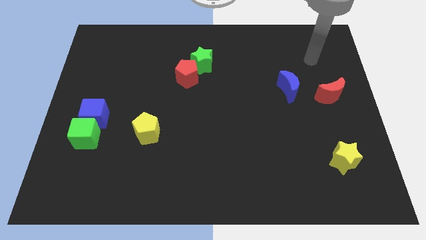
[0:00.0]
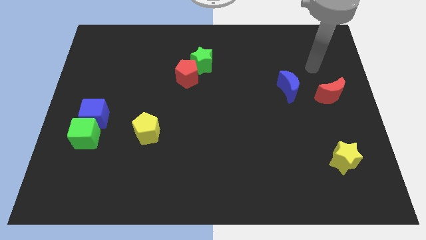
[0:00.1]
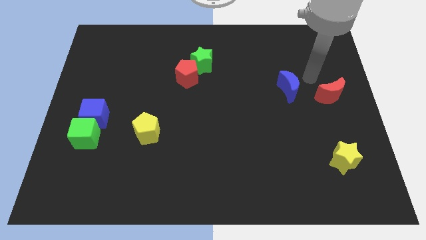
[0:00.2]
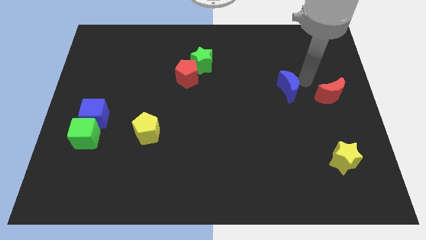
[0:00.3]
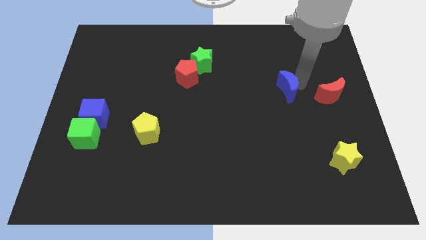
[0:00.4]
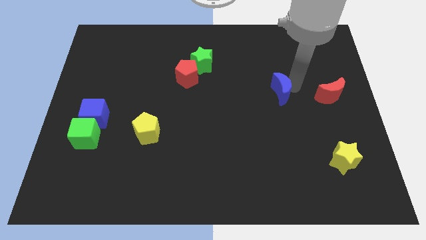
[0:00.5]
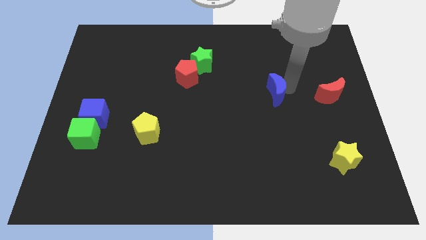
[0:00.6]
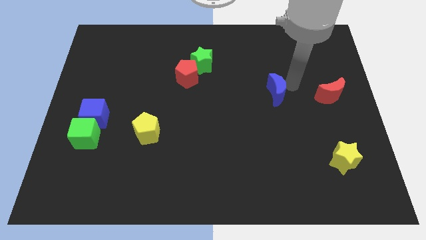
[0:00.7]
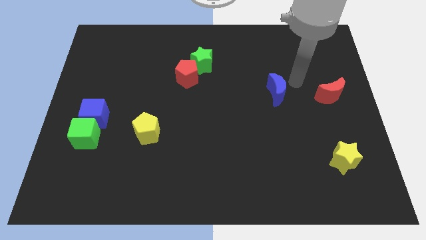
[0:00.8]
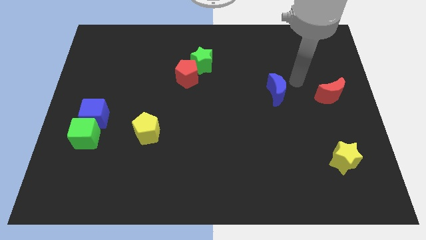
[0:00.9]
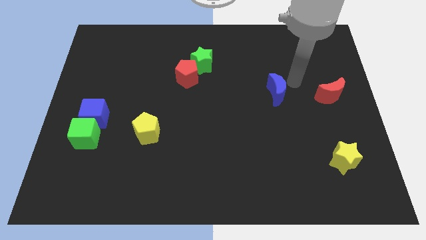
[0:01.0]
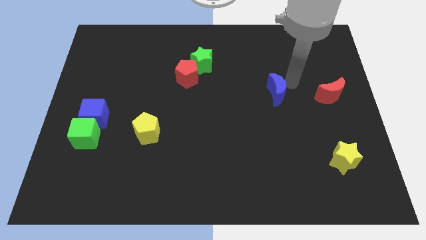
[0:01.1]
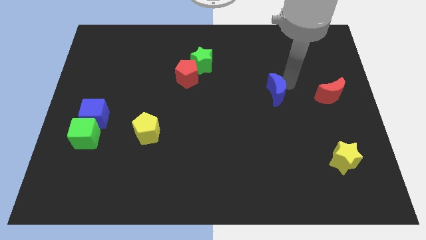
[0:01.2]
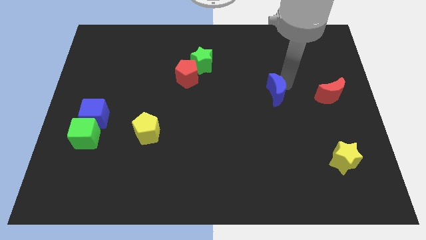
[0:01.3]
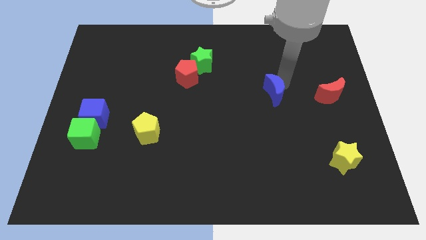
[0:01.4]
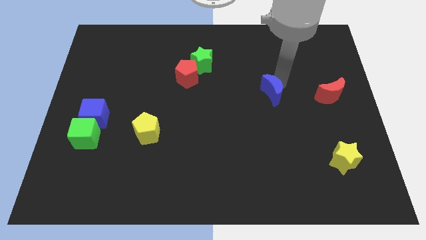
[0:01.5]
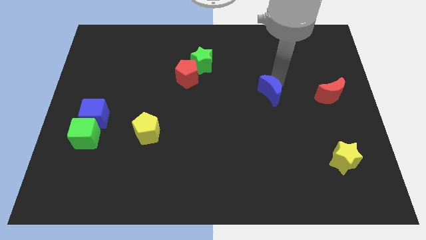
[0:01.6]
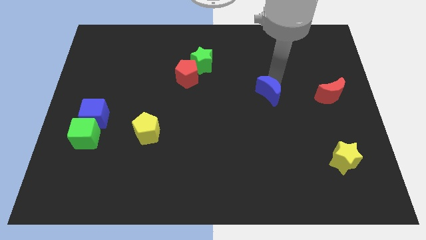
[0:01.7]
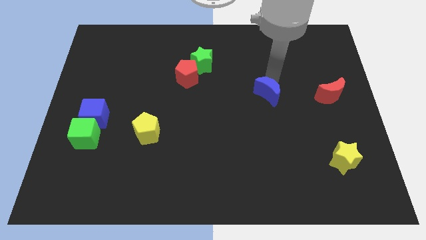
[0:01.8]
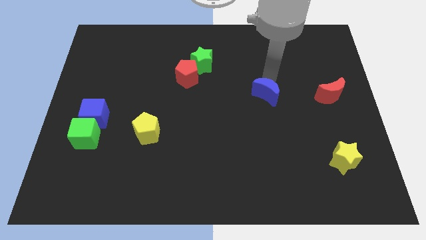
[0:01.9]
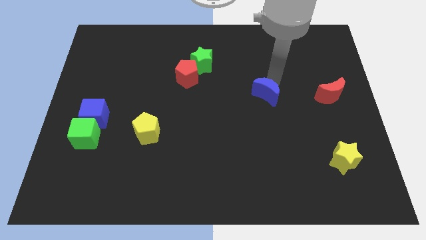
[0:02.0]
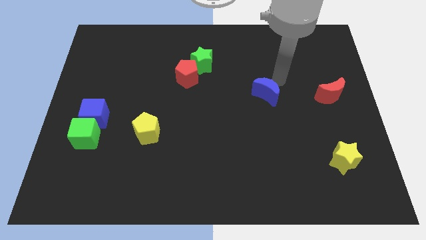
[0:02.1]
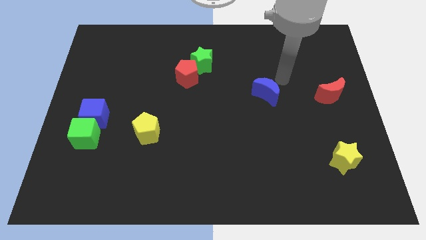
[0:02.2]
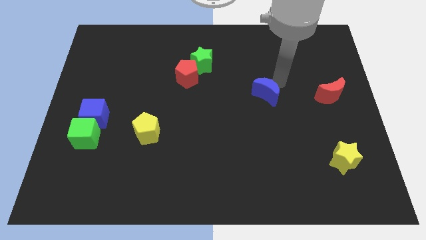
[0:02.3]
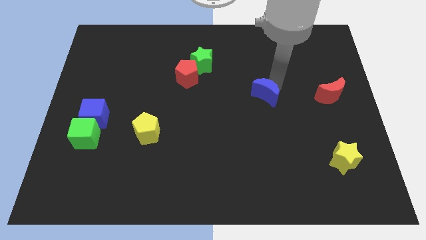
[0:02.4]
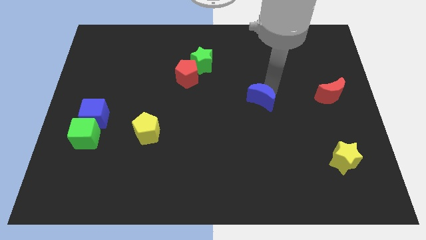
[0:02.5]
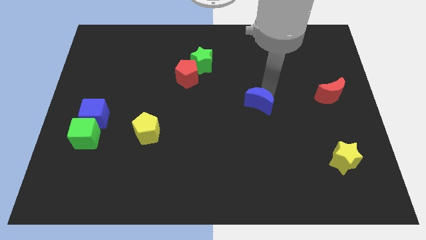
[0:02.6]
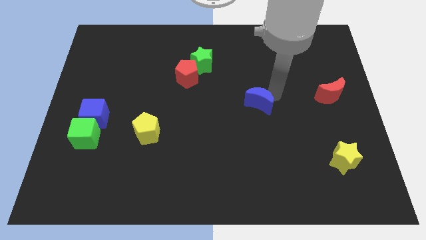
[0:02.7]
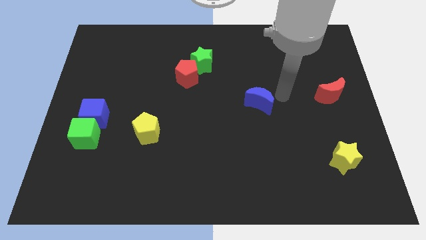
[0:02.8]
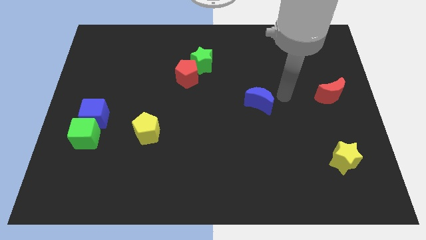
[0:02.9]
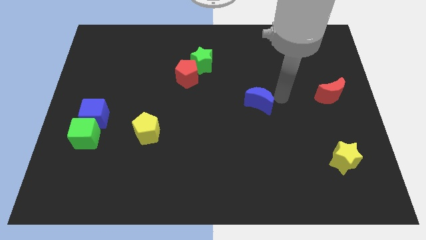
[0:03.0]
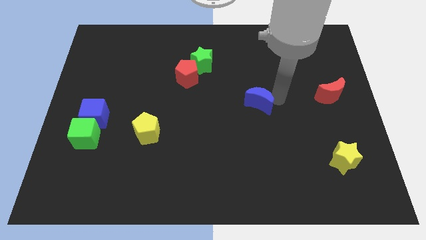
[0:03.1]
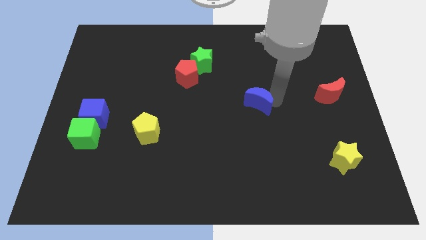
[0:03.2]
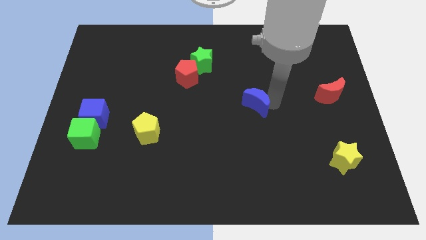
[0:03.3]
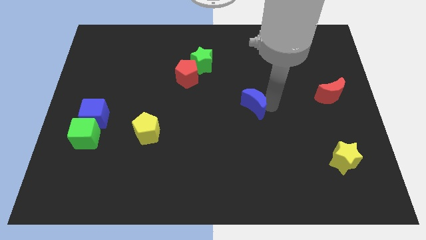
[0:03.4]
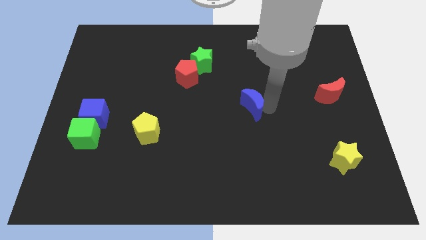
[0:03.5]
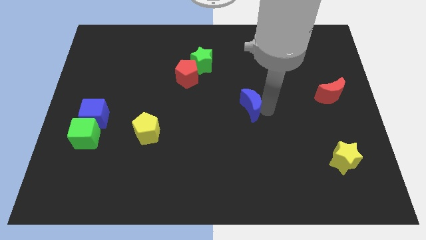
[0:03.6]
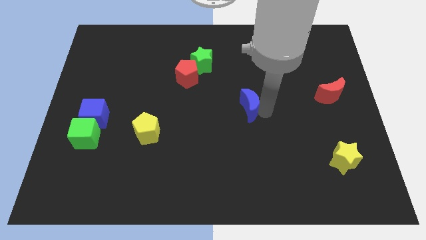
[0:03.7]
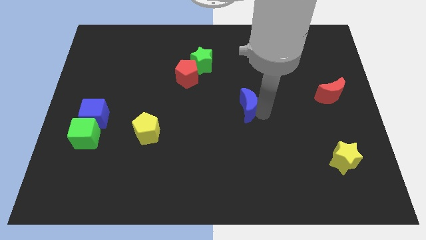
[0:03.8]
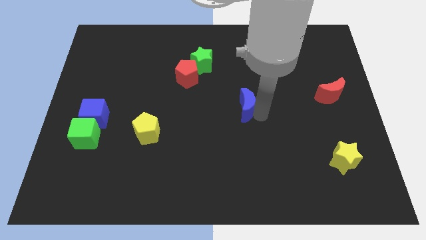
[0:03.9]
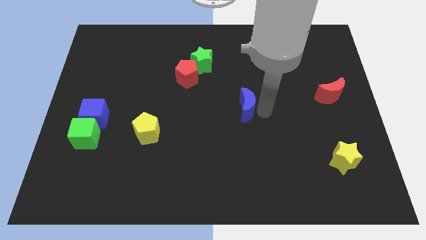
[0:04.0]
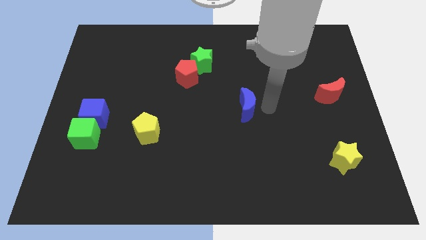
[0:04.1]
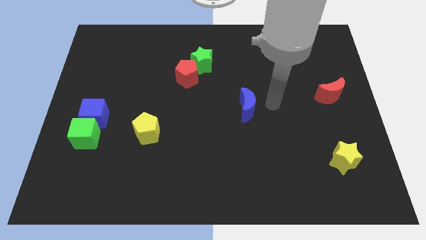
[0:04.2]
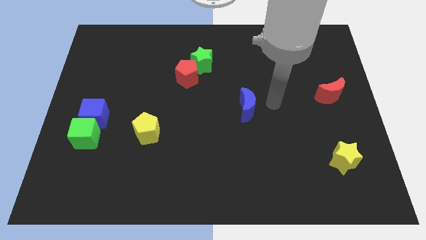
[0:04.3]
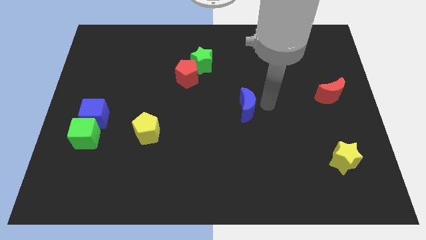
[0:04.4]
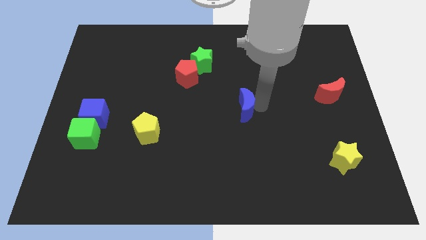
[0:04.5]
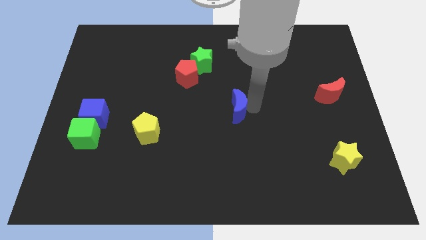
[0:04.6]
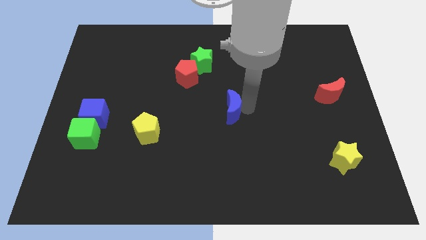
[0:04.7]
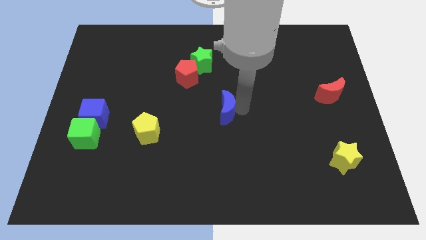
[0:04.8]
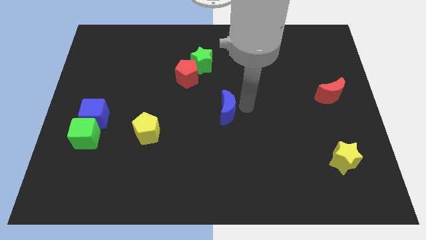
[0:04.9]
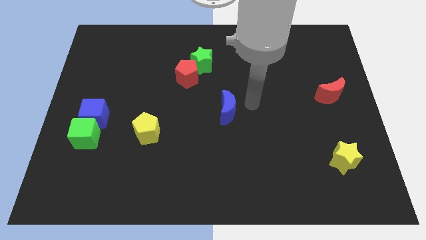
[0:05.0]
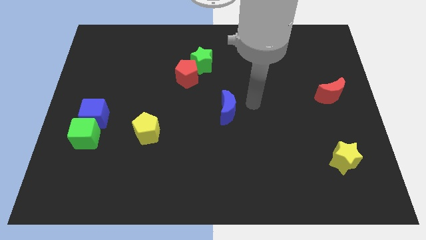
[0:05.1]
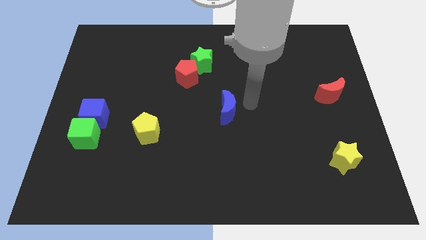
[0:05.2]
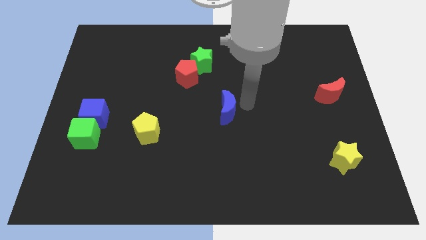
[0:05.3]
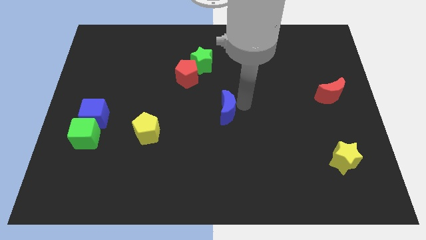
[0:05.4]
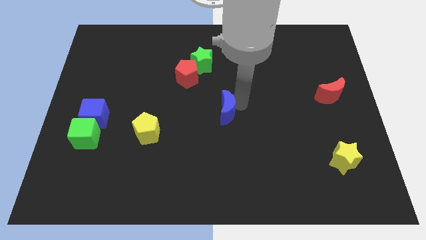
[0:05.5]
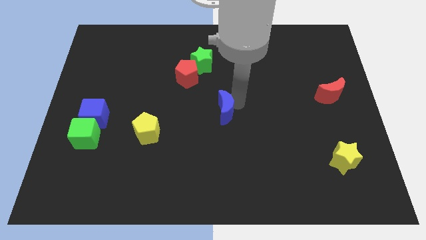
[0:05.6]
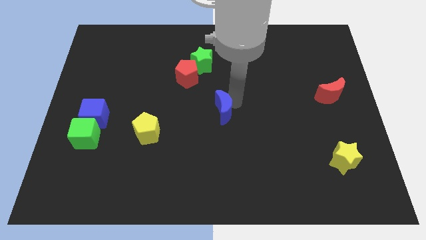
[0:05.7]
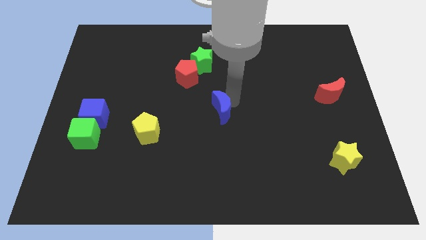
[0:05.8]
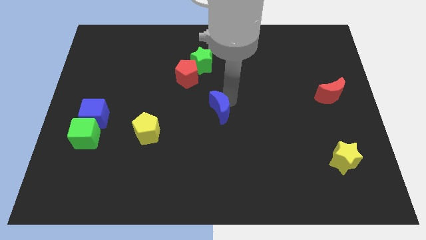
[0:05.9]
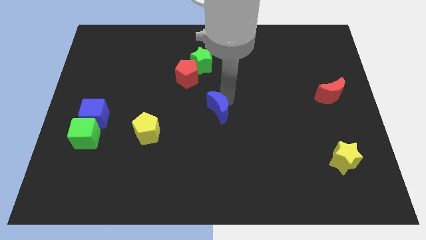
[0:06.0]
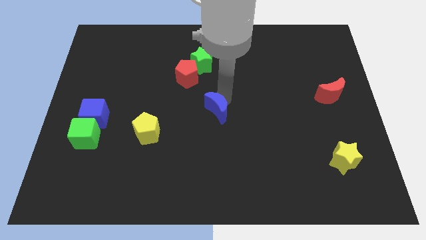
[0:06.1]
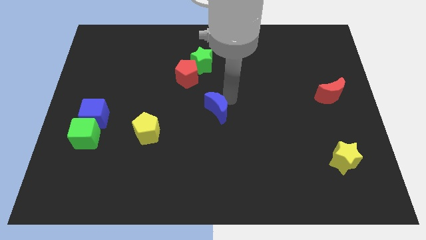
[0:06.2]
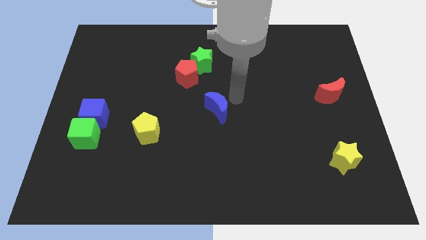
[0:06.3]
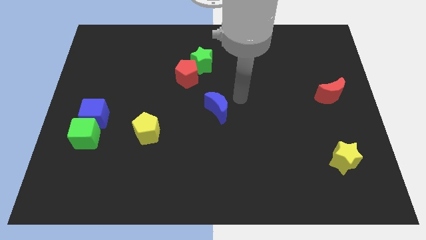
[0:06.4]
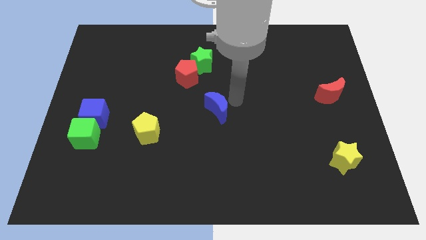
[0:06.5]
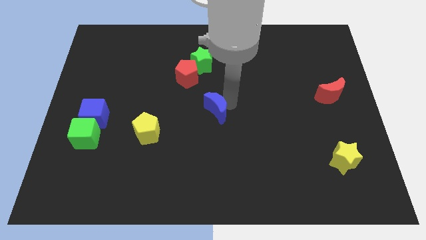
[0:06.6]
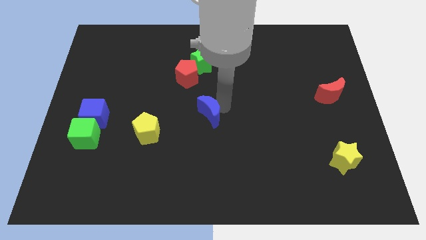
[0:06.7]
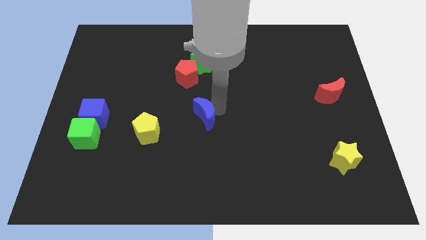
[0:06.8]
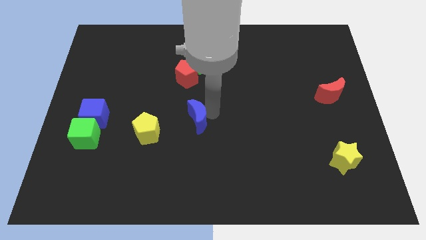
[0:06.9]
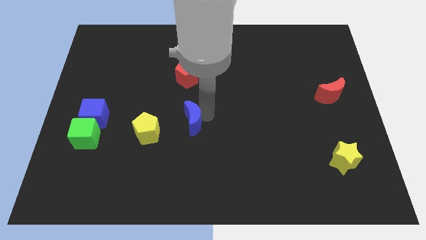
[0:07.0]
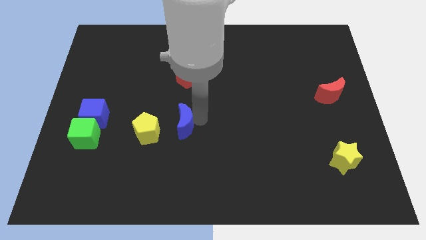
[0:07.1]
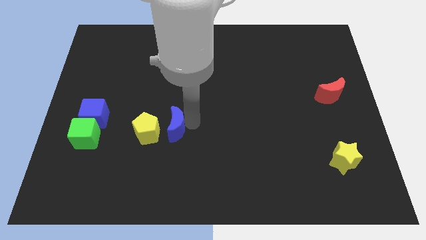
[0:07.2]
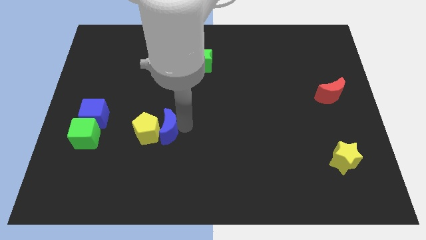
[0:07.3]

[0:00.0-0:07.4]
move the blue moon towards the yellow pentagon
